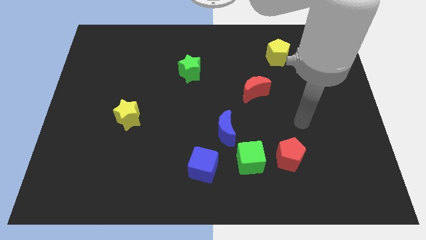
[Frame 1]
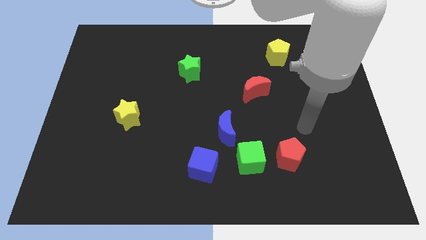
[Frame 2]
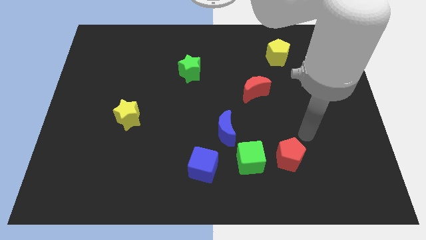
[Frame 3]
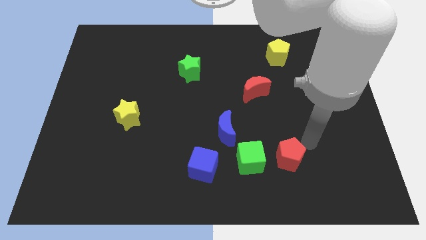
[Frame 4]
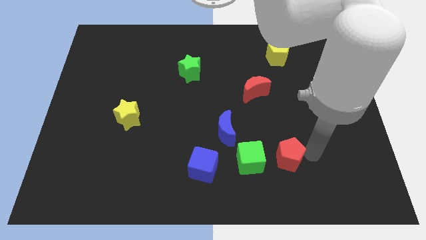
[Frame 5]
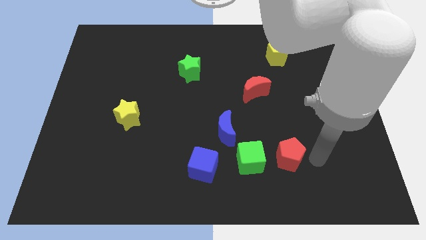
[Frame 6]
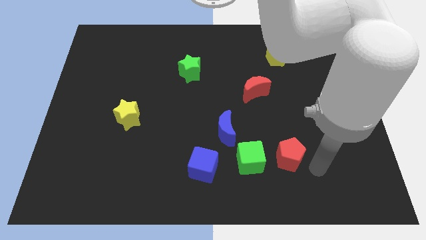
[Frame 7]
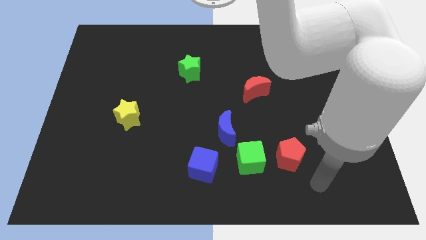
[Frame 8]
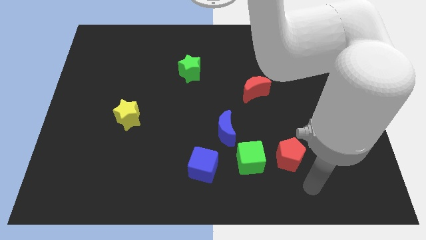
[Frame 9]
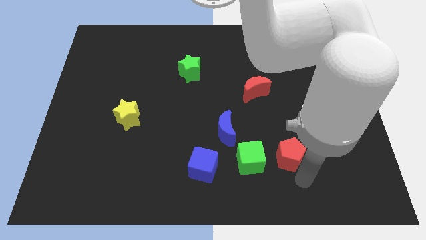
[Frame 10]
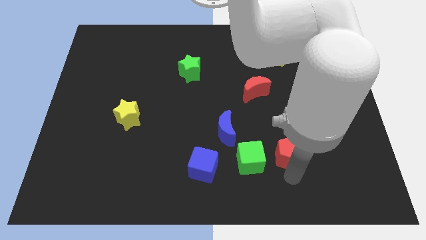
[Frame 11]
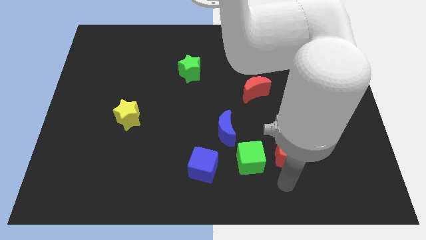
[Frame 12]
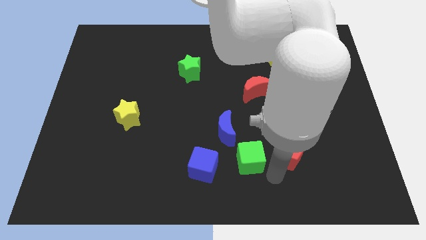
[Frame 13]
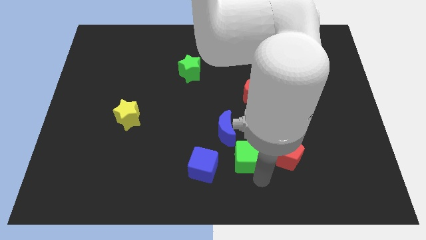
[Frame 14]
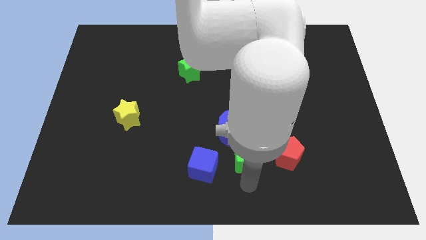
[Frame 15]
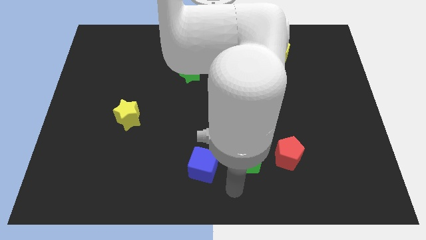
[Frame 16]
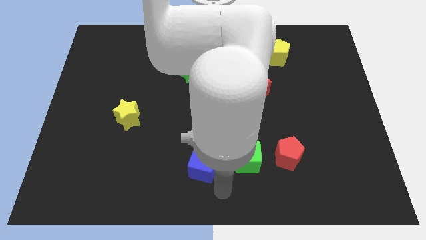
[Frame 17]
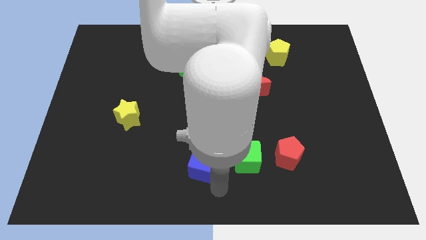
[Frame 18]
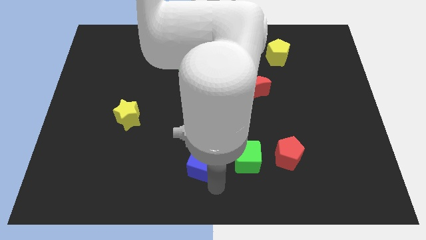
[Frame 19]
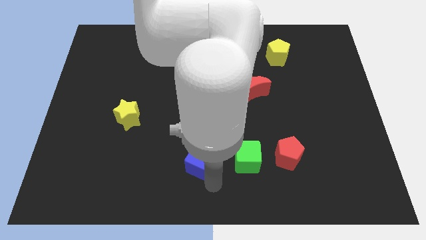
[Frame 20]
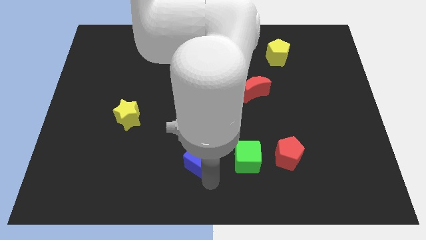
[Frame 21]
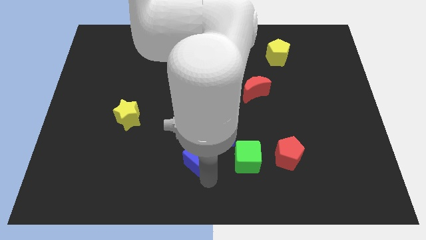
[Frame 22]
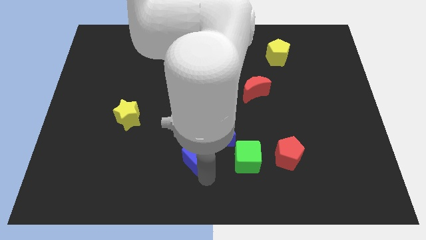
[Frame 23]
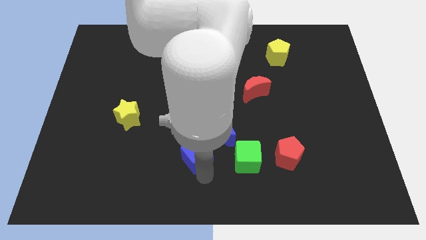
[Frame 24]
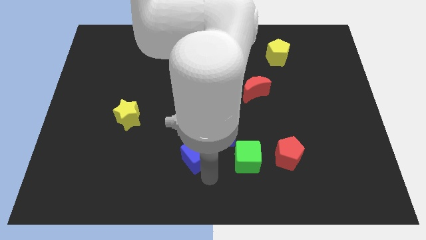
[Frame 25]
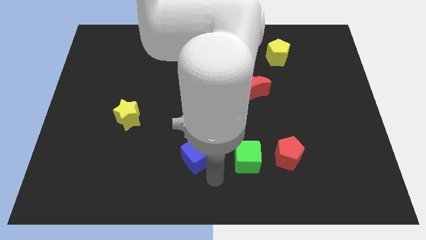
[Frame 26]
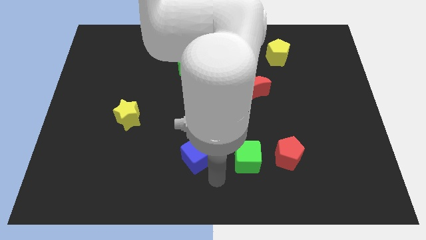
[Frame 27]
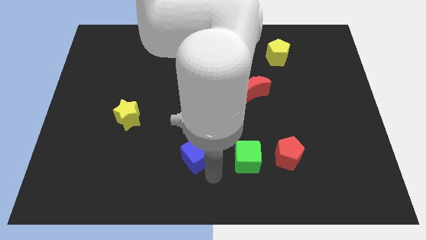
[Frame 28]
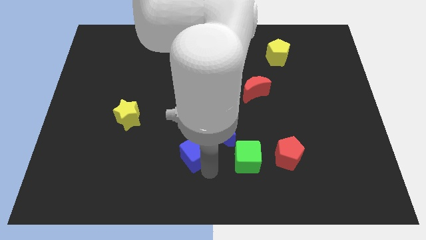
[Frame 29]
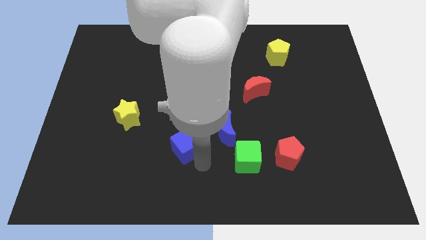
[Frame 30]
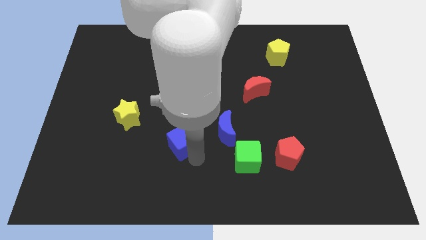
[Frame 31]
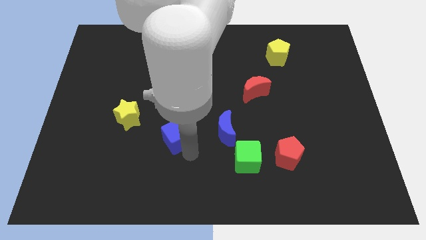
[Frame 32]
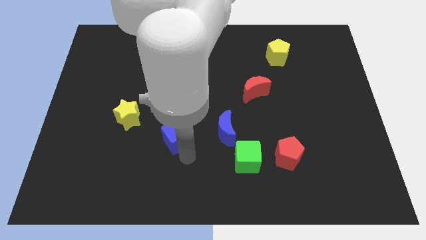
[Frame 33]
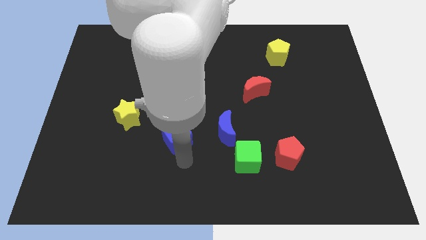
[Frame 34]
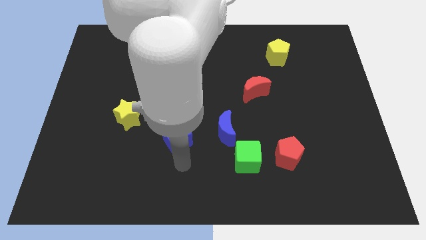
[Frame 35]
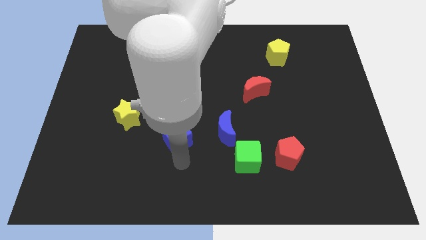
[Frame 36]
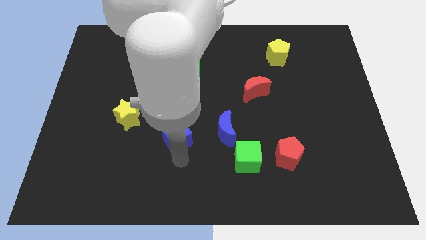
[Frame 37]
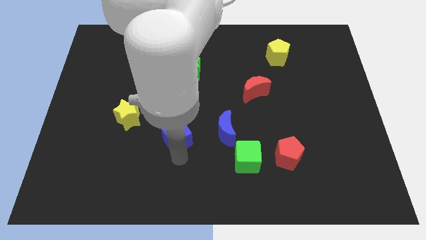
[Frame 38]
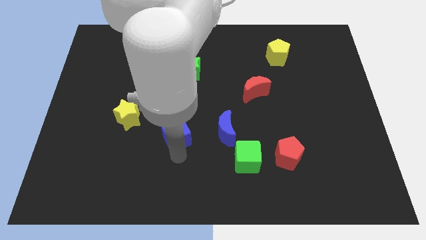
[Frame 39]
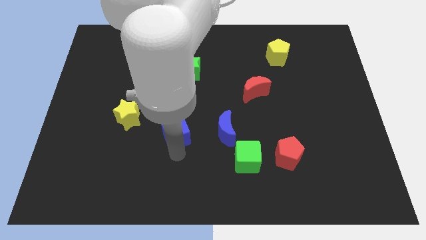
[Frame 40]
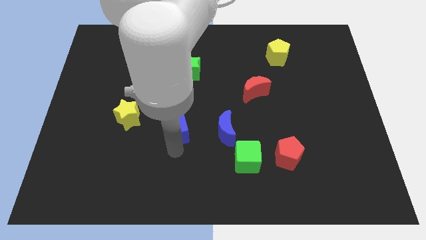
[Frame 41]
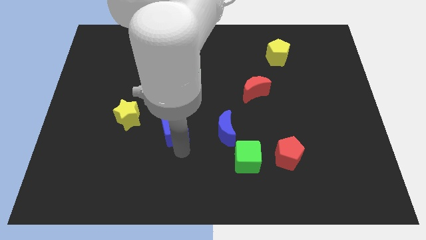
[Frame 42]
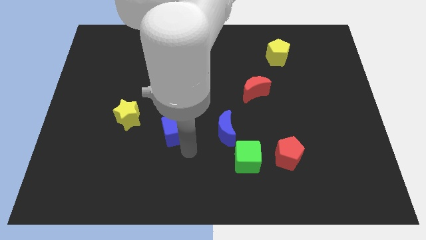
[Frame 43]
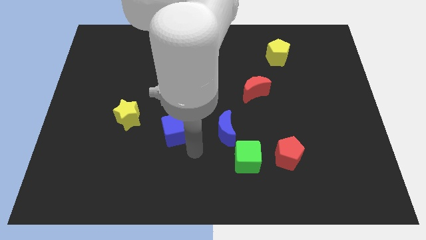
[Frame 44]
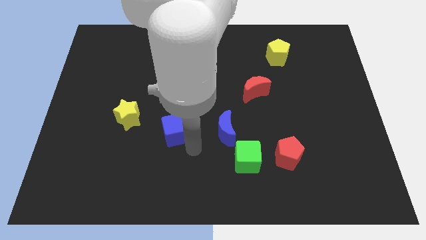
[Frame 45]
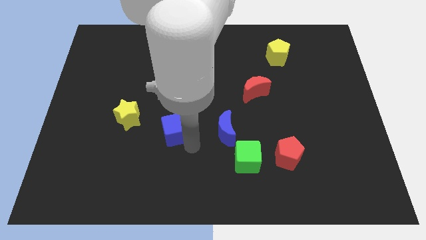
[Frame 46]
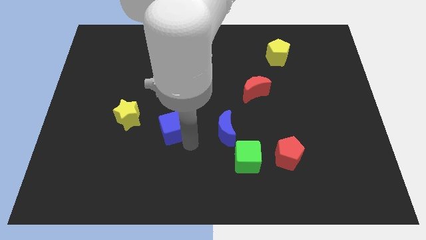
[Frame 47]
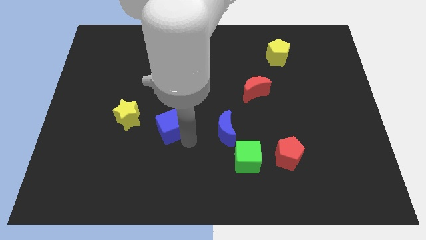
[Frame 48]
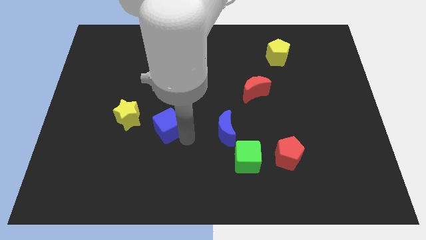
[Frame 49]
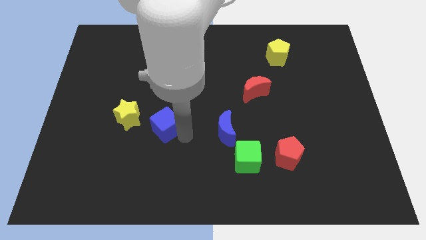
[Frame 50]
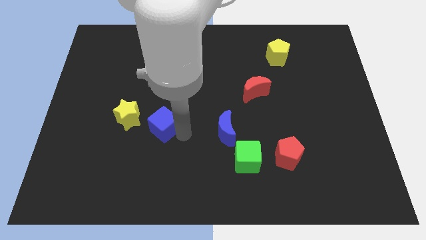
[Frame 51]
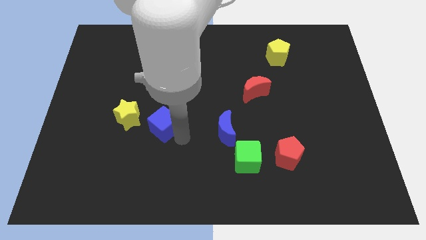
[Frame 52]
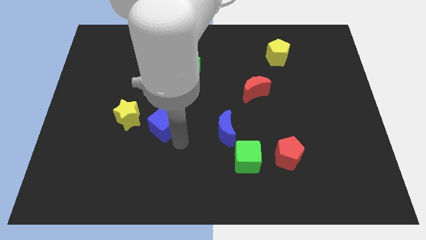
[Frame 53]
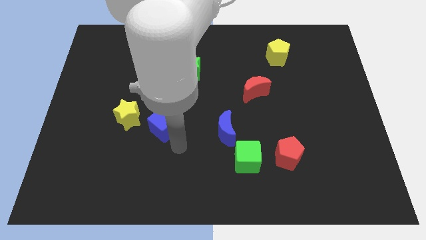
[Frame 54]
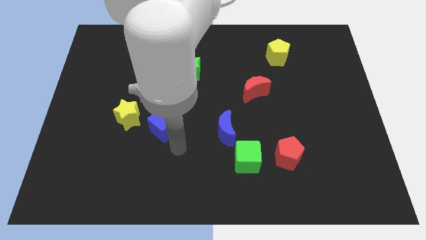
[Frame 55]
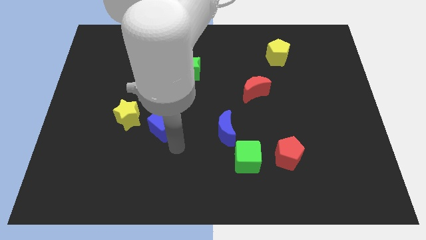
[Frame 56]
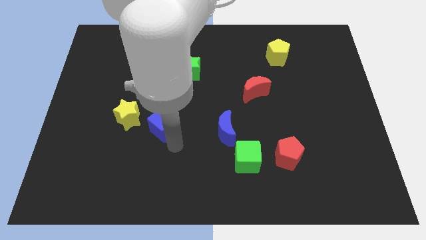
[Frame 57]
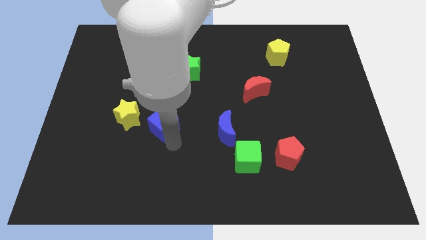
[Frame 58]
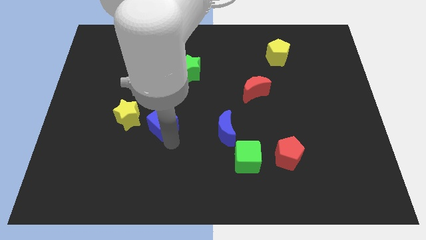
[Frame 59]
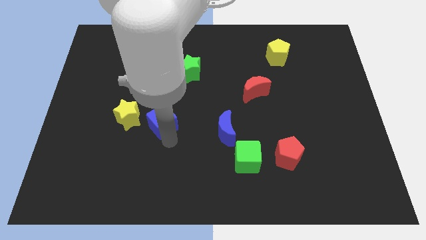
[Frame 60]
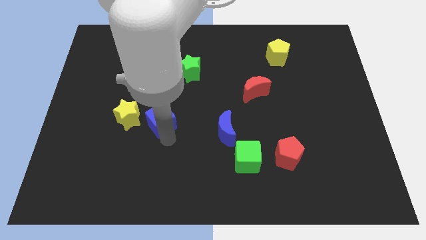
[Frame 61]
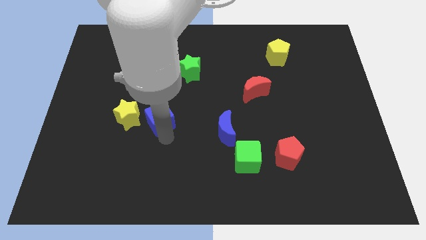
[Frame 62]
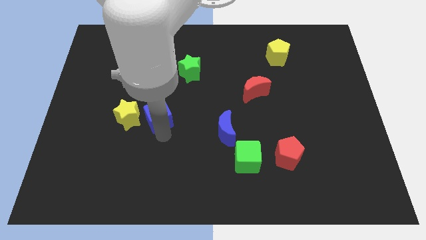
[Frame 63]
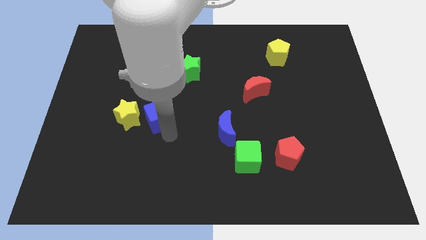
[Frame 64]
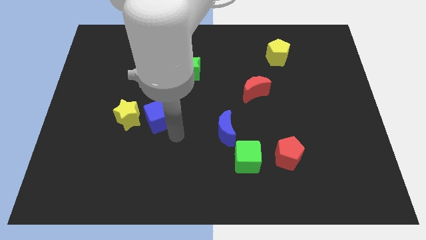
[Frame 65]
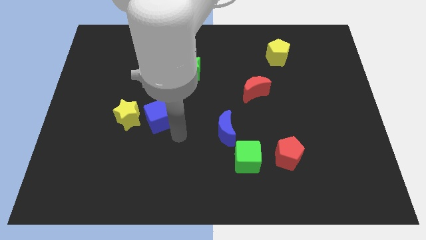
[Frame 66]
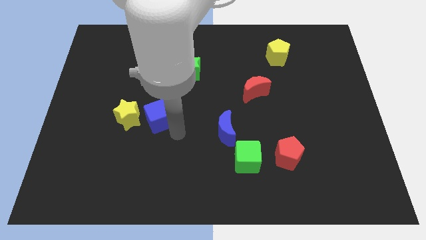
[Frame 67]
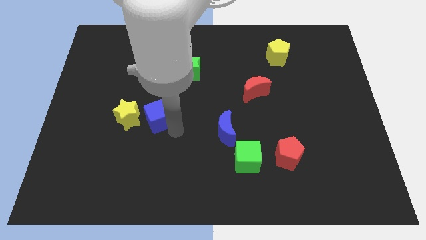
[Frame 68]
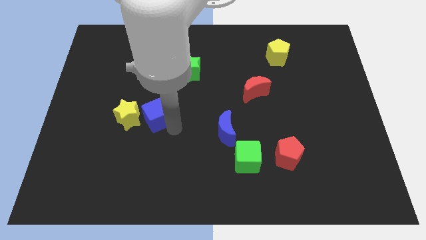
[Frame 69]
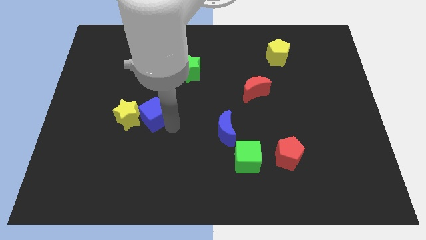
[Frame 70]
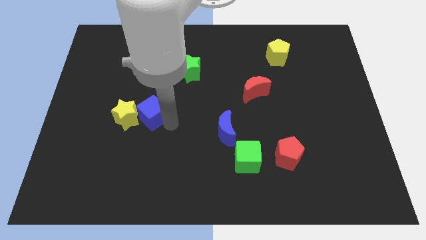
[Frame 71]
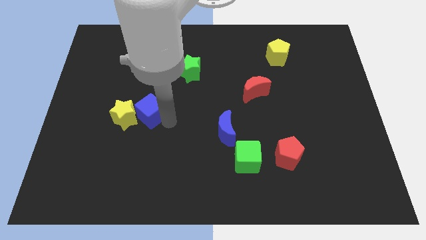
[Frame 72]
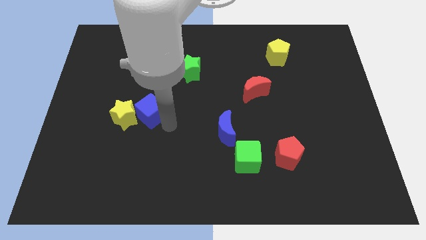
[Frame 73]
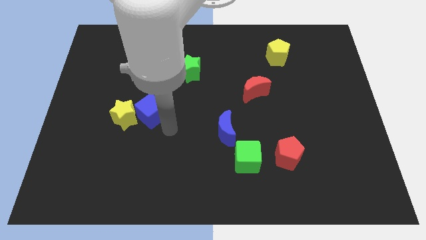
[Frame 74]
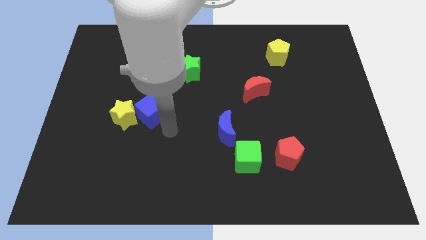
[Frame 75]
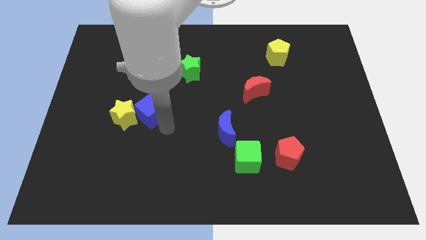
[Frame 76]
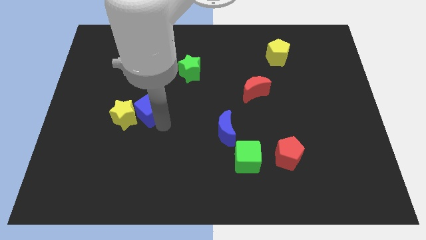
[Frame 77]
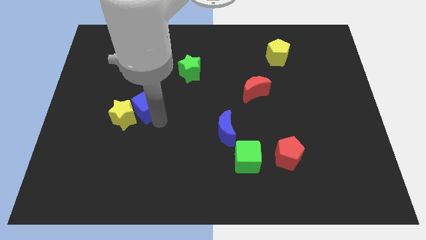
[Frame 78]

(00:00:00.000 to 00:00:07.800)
move the blue cube up and left diagonally

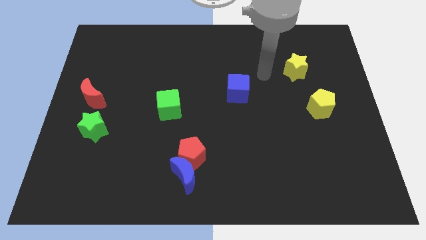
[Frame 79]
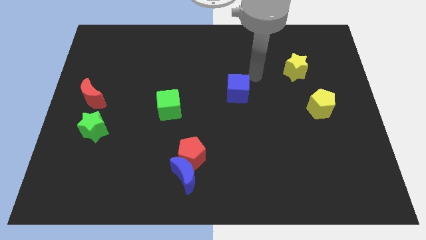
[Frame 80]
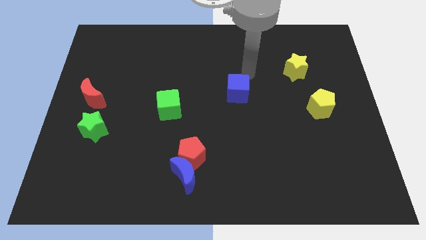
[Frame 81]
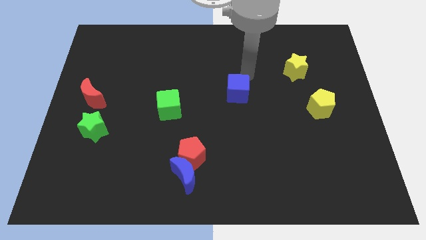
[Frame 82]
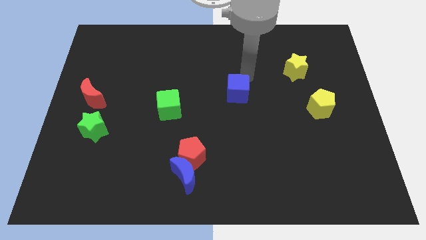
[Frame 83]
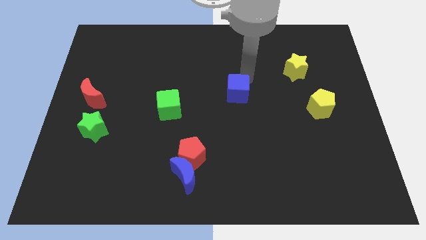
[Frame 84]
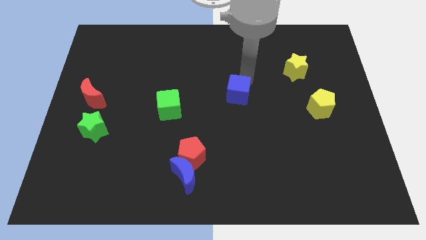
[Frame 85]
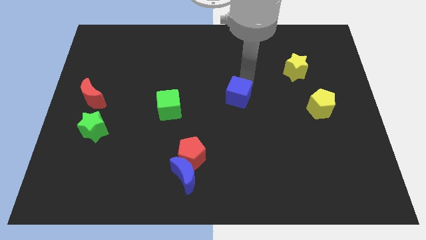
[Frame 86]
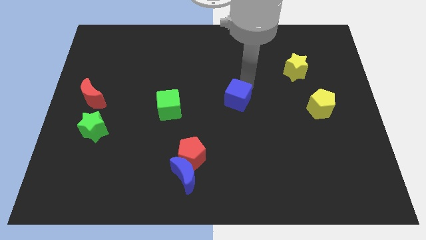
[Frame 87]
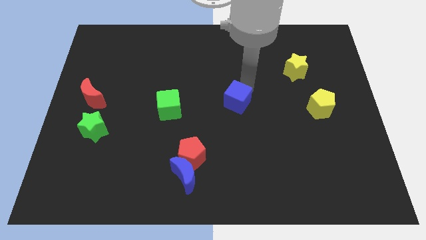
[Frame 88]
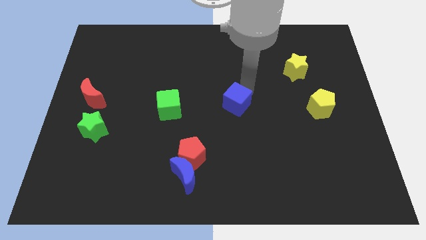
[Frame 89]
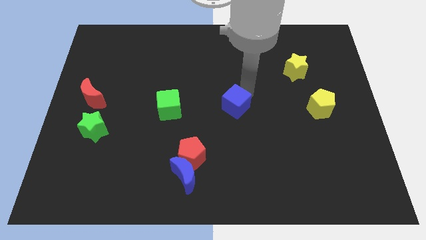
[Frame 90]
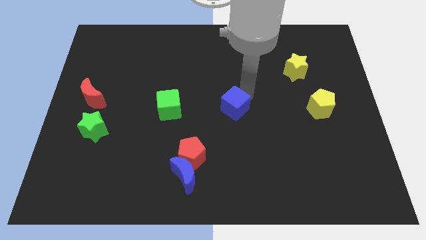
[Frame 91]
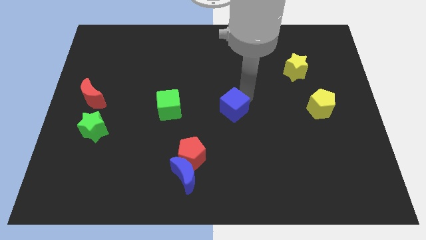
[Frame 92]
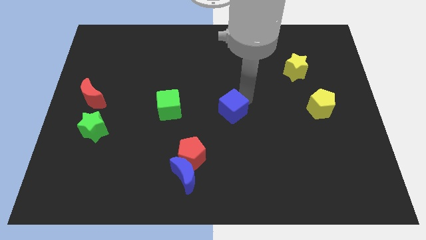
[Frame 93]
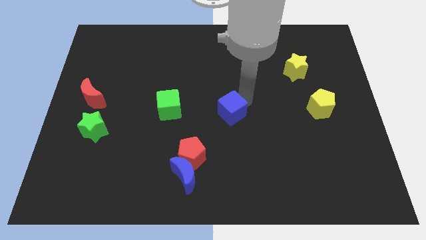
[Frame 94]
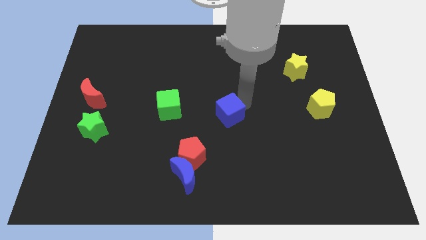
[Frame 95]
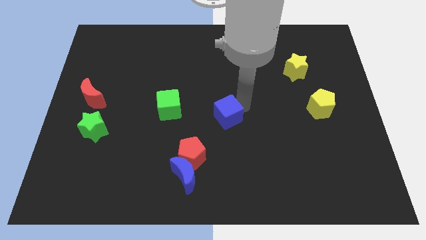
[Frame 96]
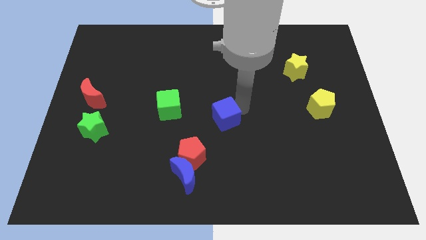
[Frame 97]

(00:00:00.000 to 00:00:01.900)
slightly move the blue cube down and then left
